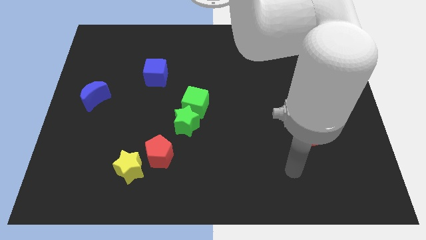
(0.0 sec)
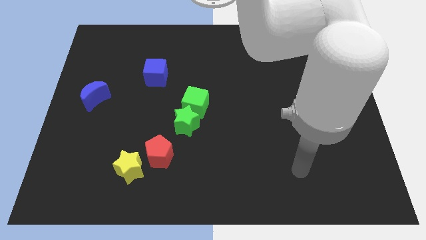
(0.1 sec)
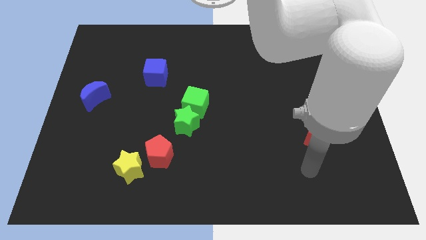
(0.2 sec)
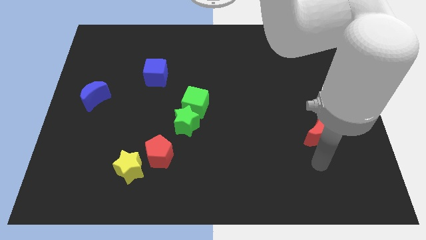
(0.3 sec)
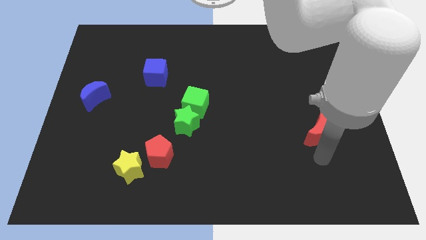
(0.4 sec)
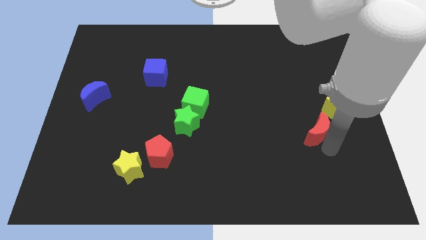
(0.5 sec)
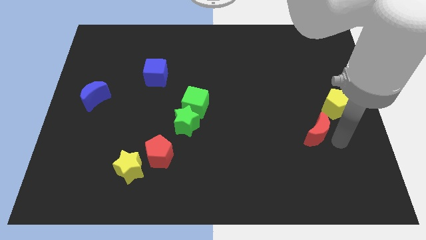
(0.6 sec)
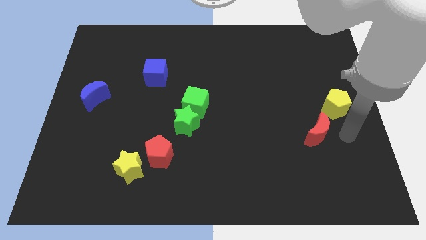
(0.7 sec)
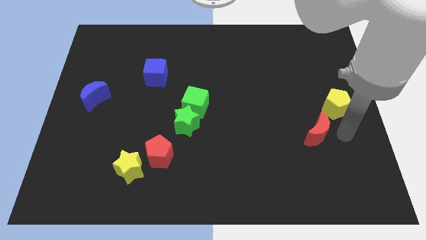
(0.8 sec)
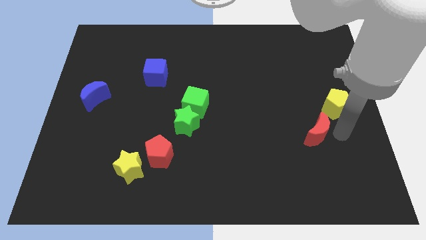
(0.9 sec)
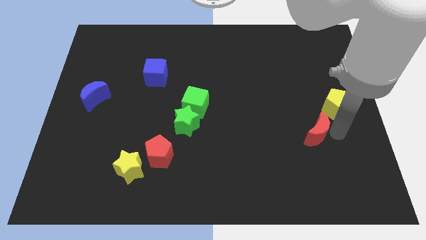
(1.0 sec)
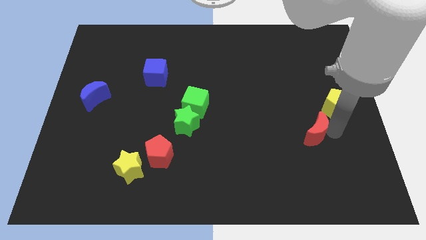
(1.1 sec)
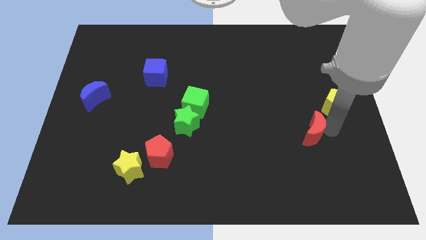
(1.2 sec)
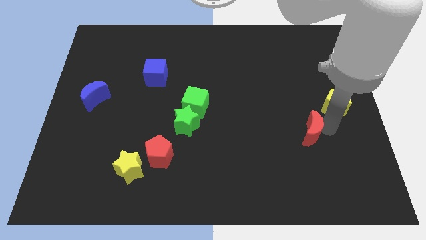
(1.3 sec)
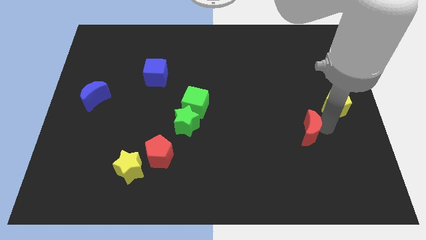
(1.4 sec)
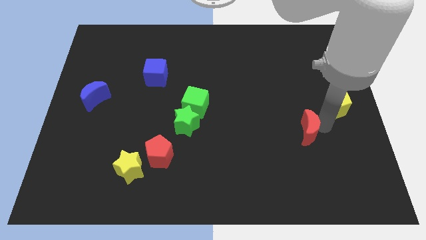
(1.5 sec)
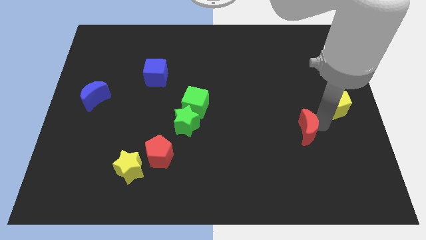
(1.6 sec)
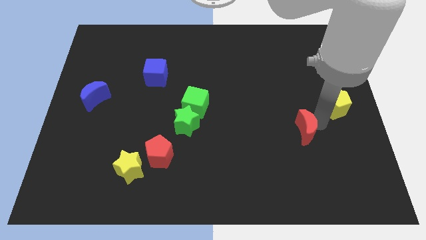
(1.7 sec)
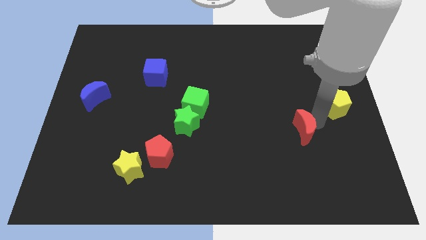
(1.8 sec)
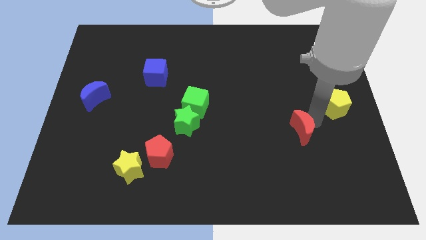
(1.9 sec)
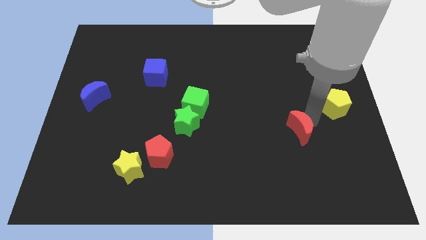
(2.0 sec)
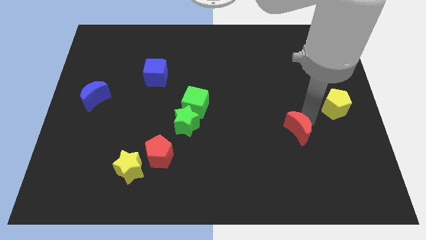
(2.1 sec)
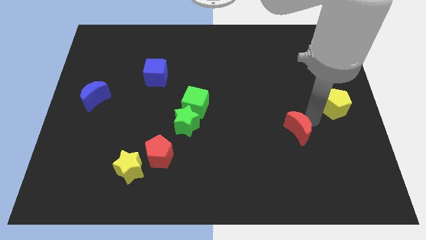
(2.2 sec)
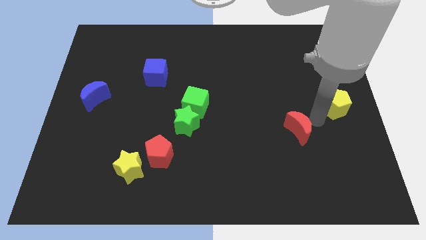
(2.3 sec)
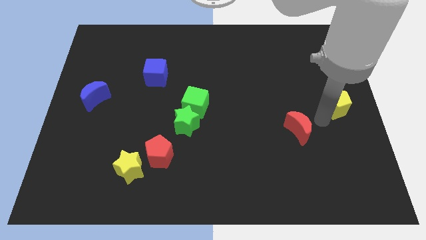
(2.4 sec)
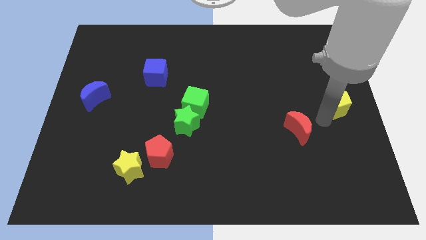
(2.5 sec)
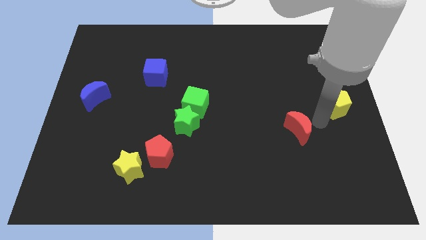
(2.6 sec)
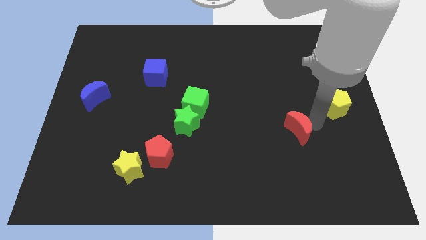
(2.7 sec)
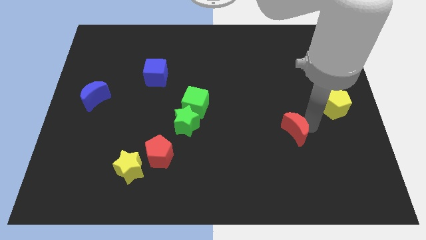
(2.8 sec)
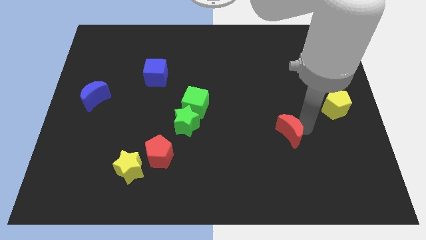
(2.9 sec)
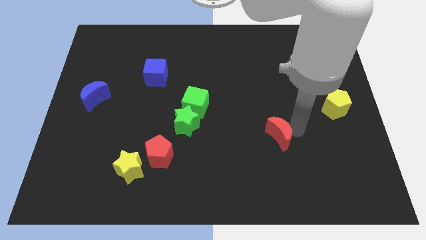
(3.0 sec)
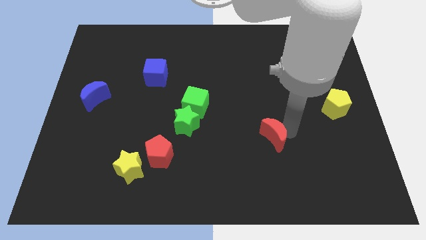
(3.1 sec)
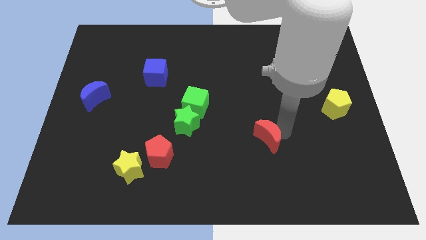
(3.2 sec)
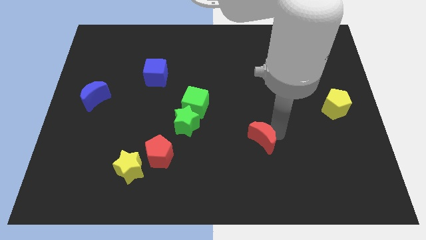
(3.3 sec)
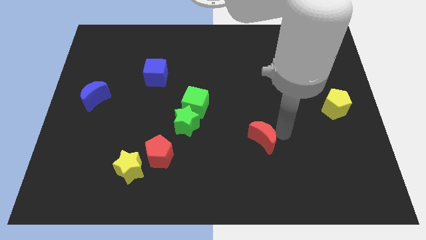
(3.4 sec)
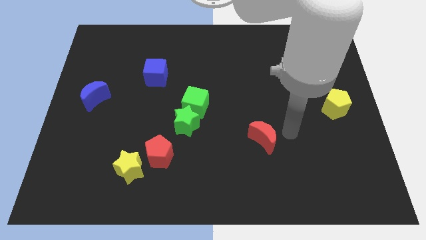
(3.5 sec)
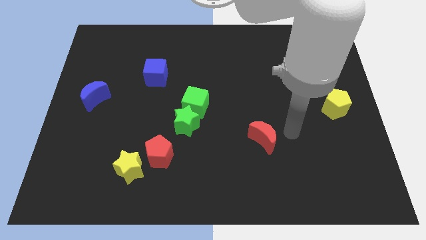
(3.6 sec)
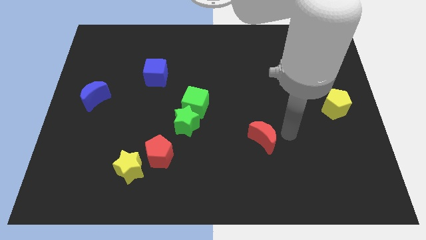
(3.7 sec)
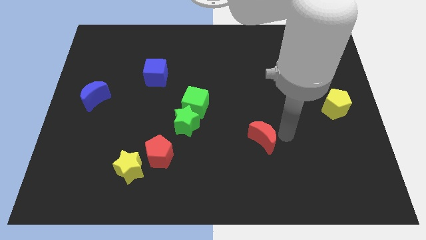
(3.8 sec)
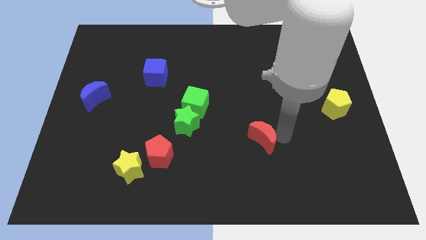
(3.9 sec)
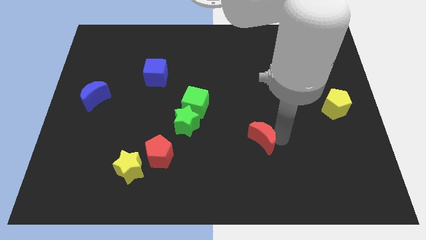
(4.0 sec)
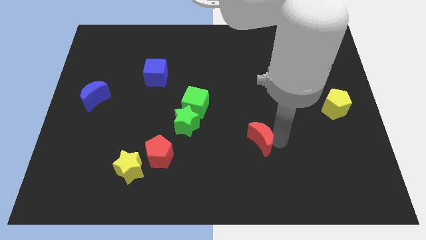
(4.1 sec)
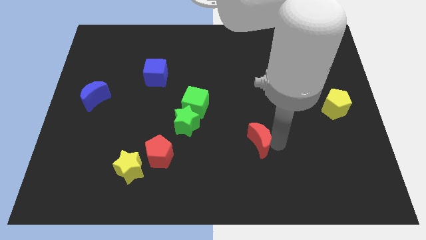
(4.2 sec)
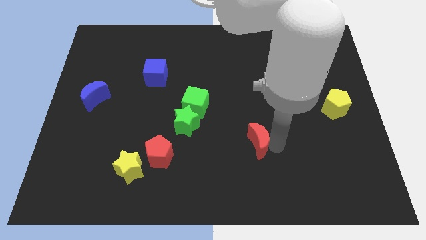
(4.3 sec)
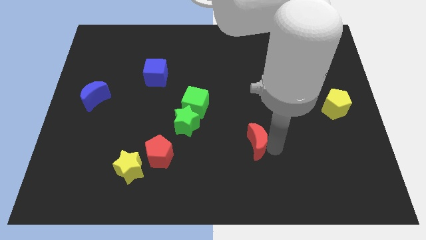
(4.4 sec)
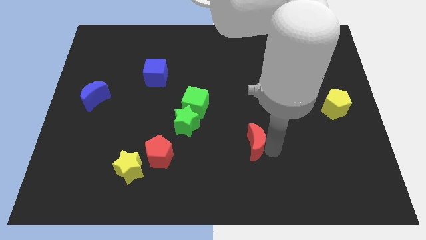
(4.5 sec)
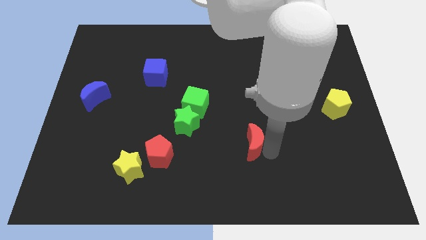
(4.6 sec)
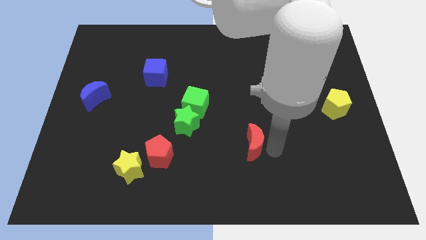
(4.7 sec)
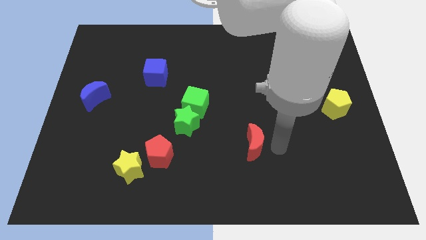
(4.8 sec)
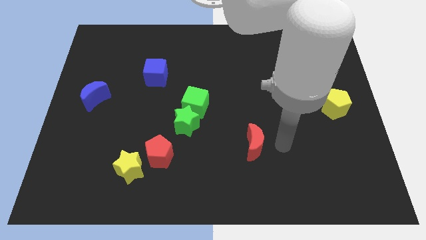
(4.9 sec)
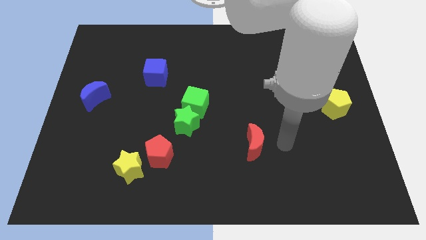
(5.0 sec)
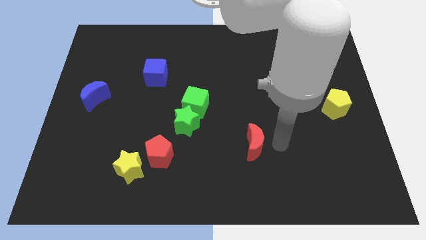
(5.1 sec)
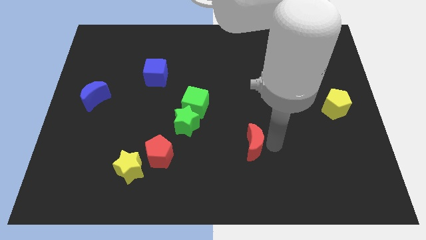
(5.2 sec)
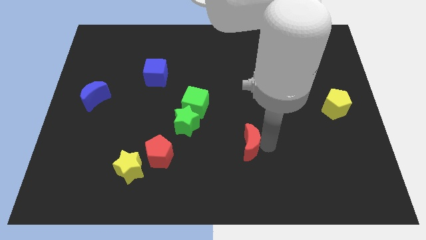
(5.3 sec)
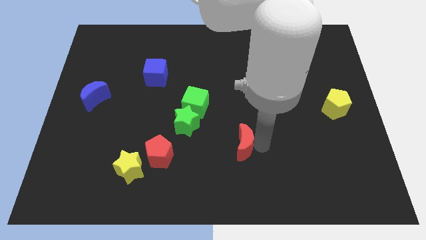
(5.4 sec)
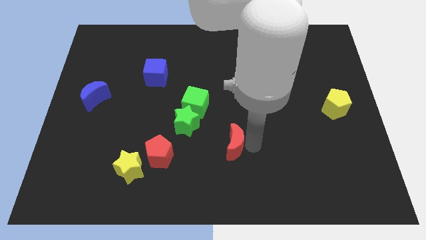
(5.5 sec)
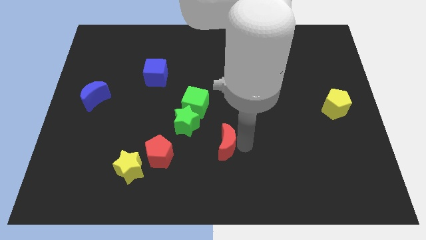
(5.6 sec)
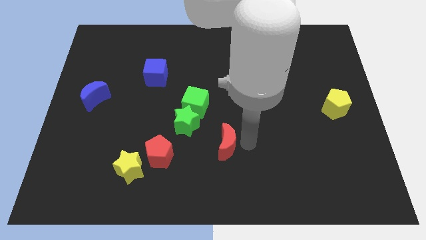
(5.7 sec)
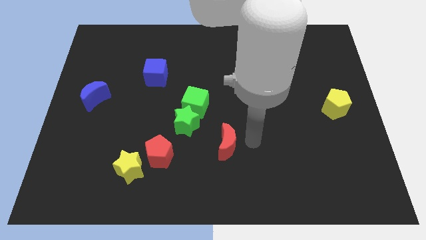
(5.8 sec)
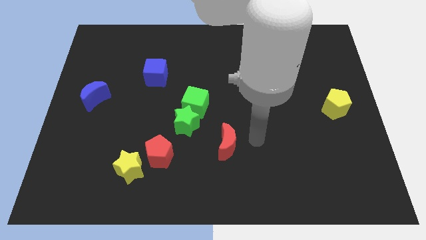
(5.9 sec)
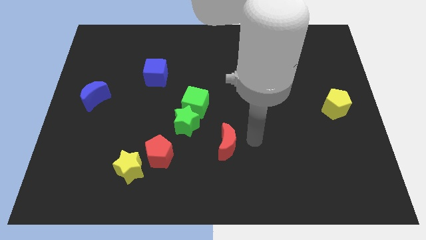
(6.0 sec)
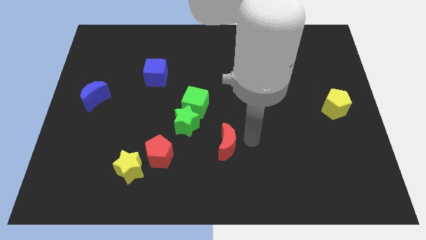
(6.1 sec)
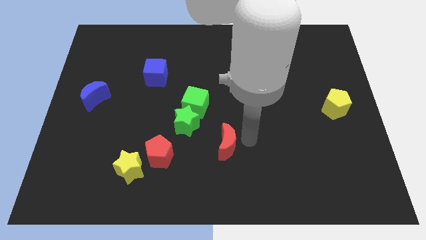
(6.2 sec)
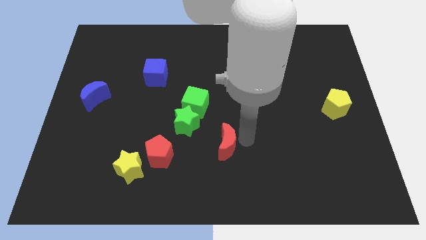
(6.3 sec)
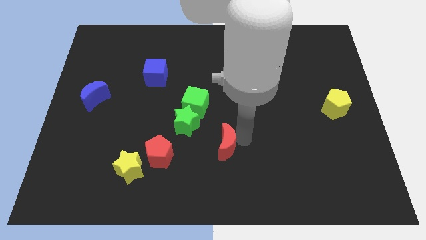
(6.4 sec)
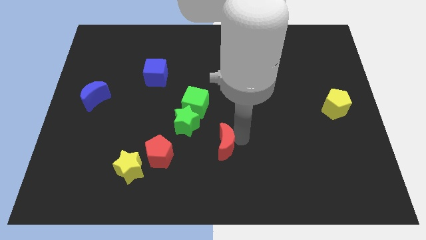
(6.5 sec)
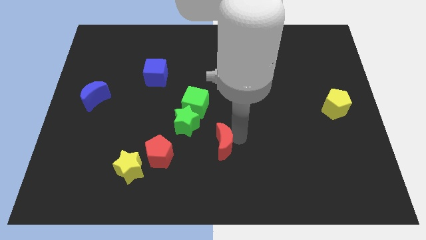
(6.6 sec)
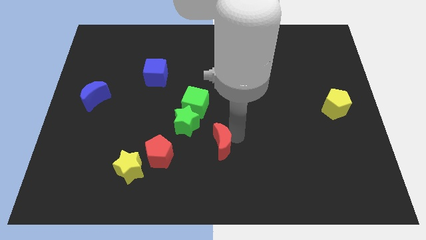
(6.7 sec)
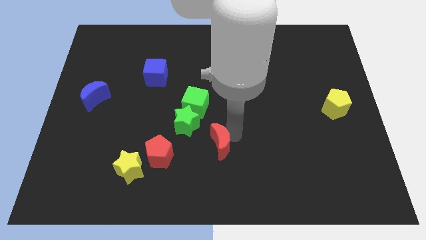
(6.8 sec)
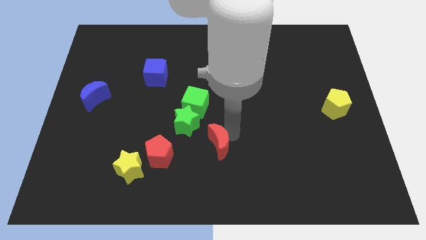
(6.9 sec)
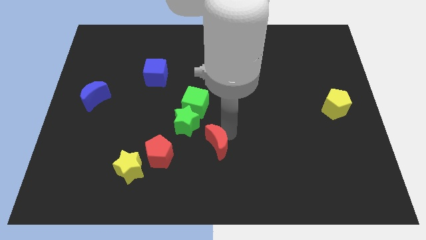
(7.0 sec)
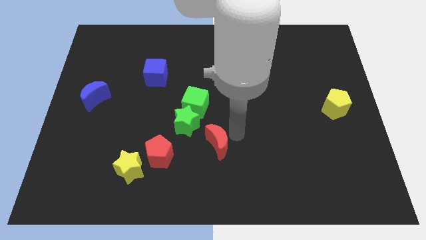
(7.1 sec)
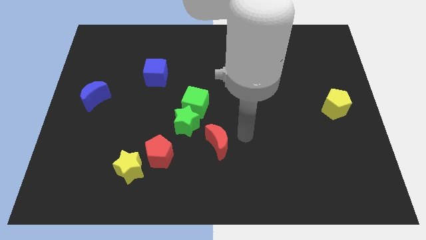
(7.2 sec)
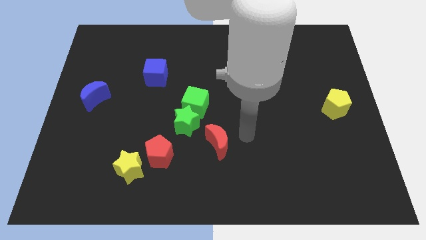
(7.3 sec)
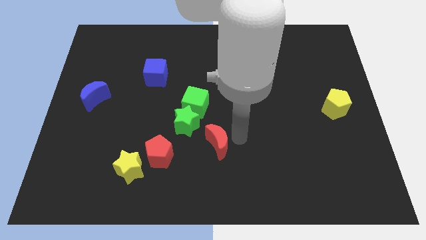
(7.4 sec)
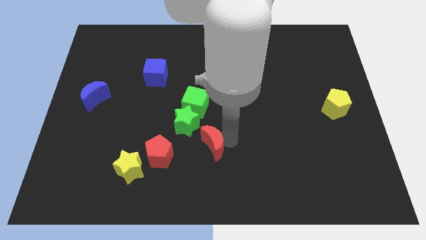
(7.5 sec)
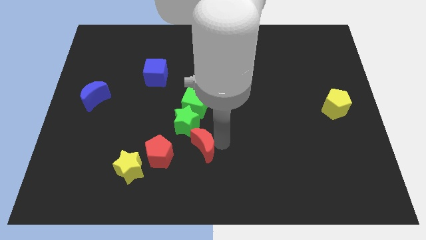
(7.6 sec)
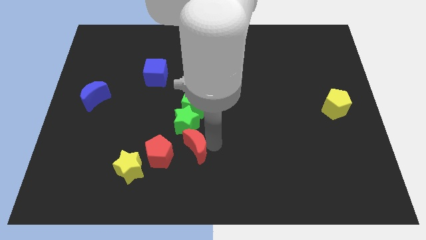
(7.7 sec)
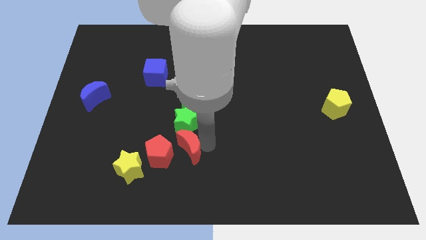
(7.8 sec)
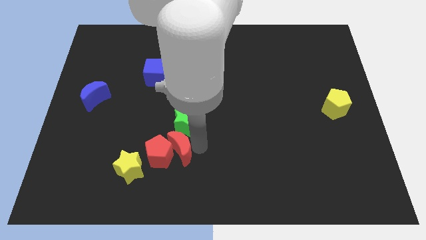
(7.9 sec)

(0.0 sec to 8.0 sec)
put the red moon to the red pentagon
